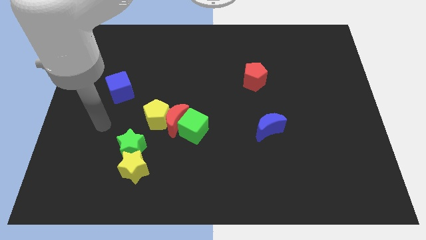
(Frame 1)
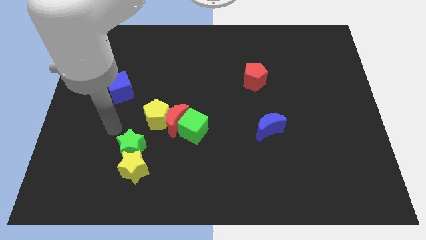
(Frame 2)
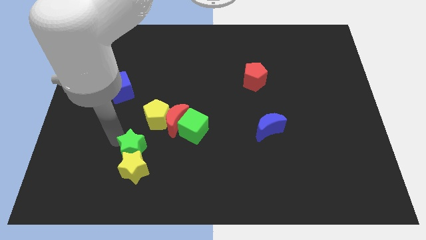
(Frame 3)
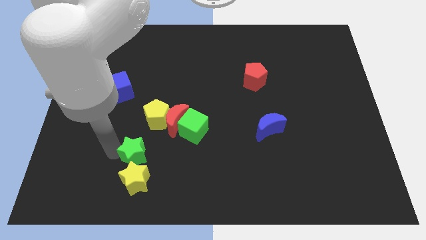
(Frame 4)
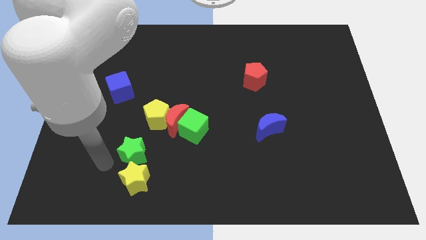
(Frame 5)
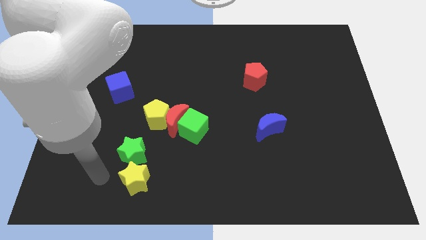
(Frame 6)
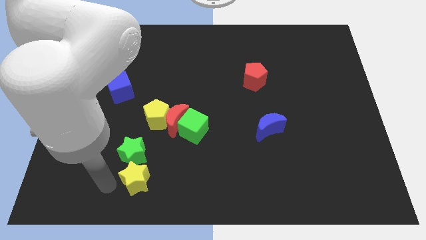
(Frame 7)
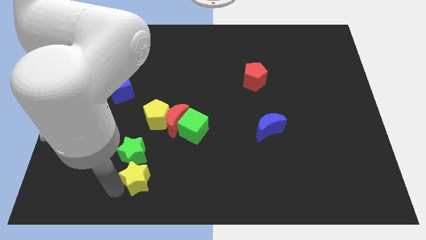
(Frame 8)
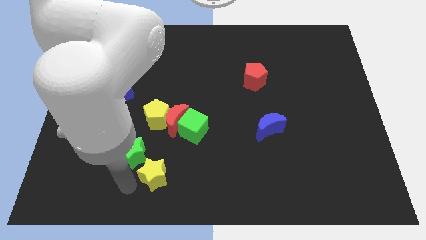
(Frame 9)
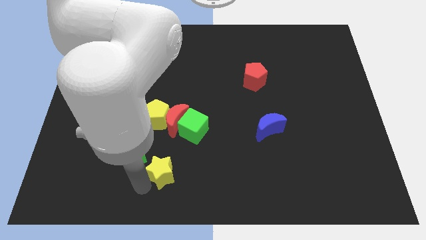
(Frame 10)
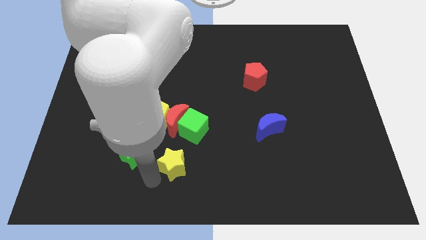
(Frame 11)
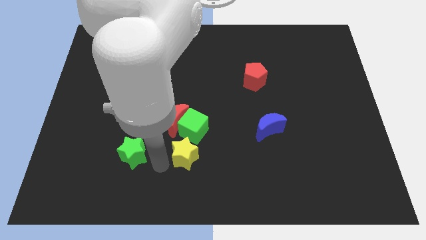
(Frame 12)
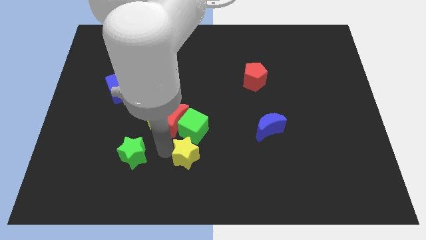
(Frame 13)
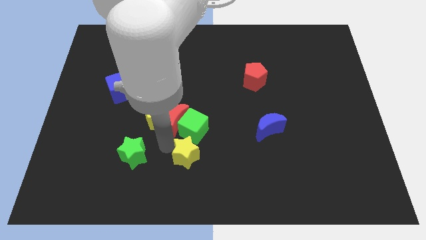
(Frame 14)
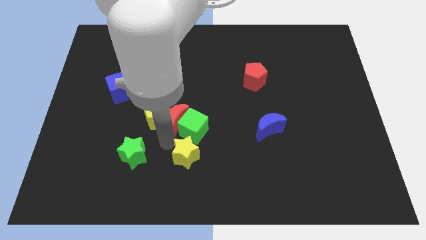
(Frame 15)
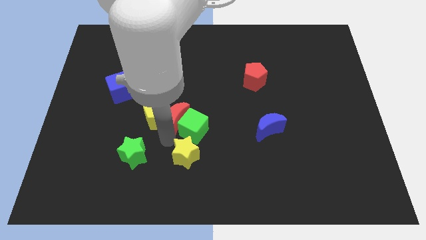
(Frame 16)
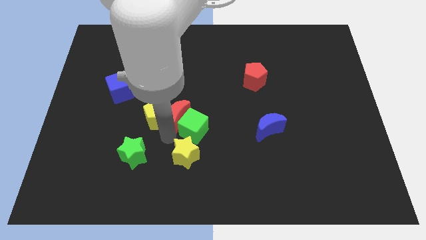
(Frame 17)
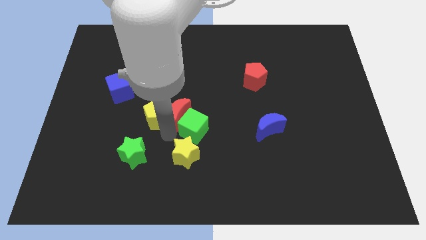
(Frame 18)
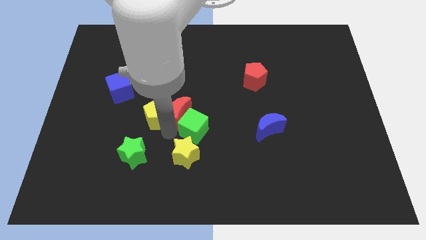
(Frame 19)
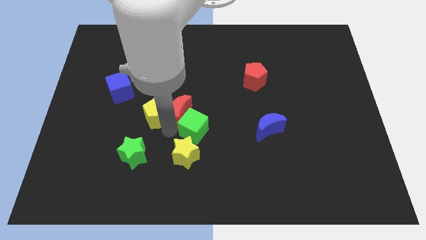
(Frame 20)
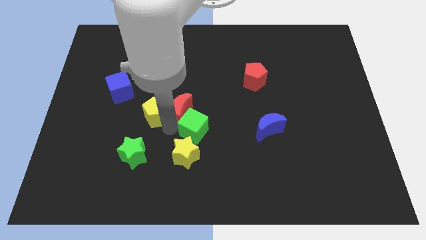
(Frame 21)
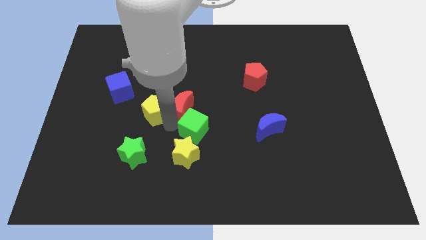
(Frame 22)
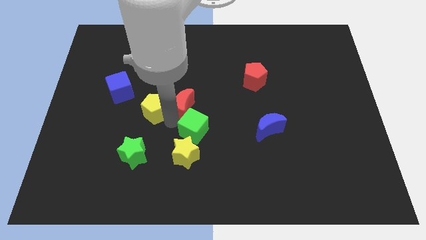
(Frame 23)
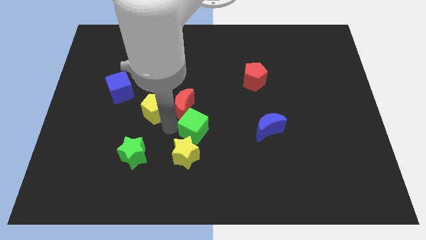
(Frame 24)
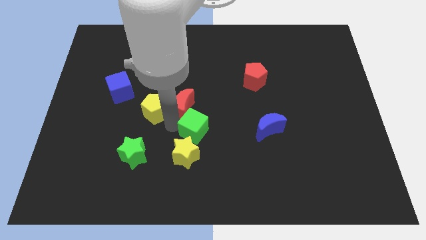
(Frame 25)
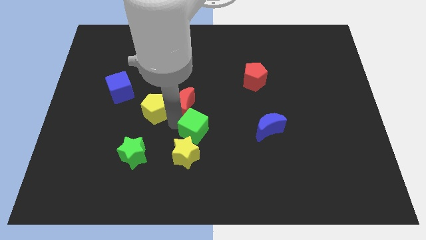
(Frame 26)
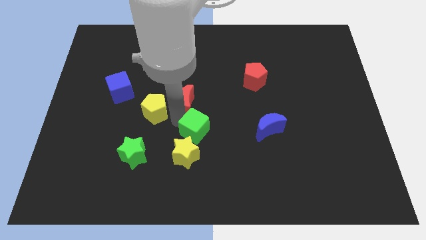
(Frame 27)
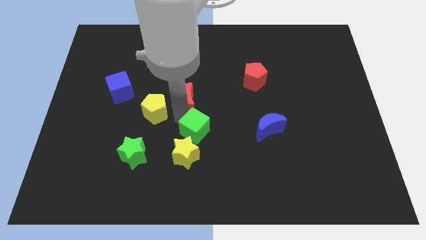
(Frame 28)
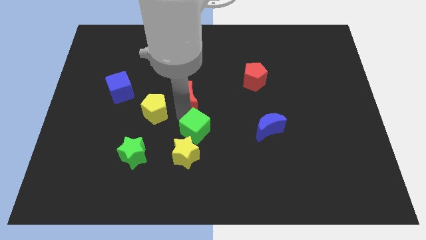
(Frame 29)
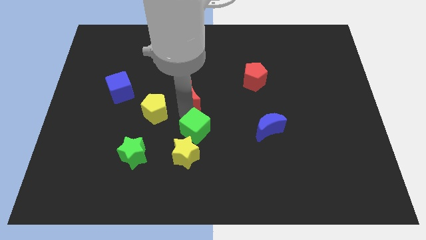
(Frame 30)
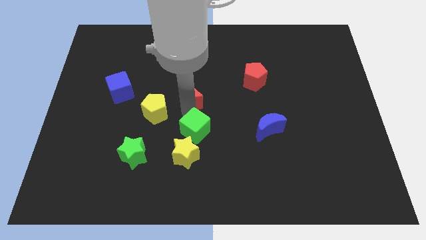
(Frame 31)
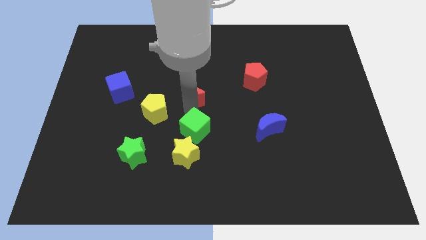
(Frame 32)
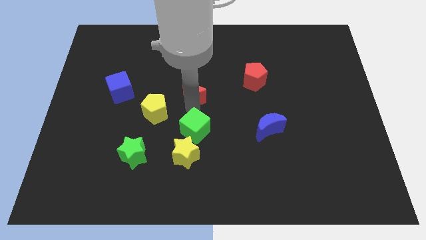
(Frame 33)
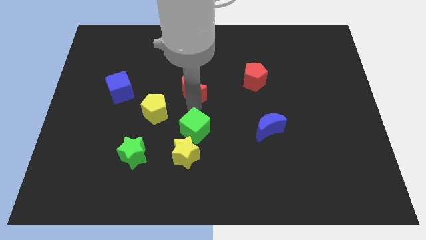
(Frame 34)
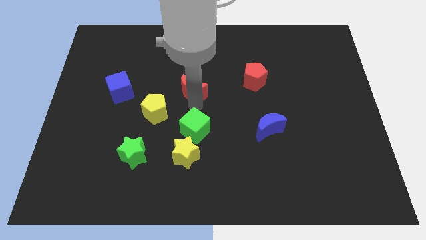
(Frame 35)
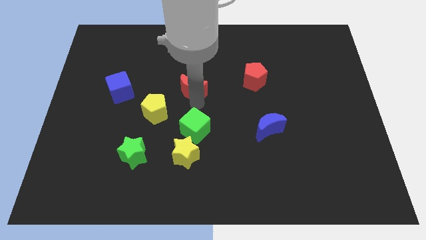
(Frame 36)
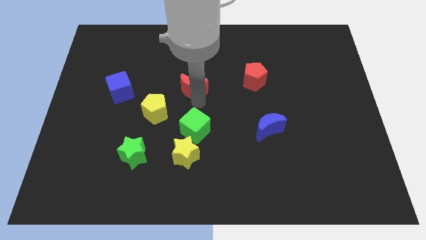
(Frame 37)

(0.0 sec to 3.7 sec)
move the red moon away from the yellow pentagon and green cube

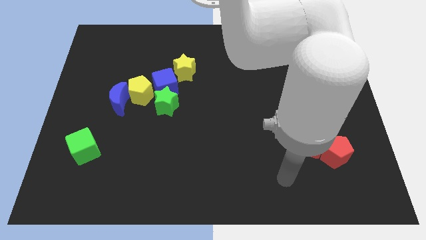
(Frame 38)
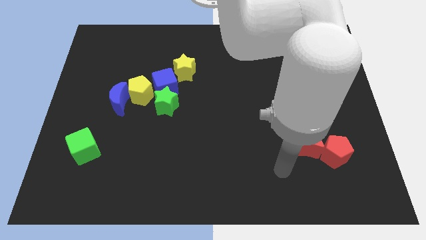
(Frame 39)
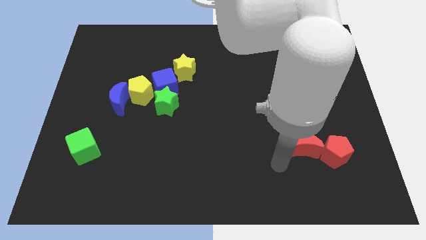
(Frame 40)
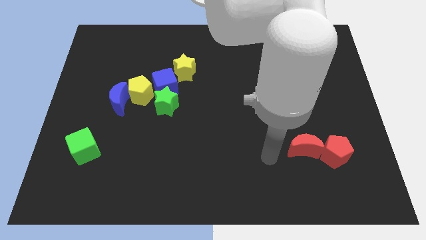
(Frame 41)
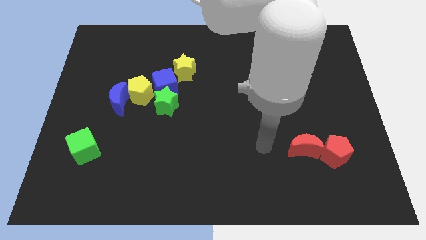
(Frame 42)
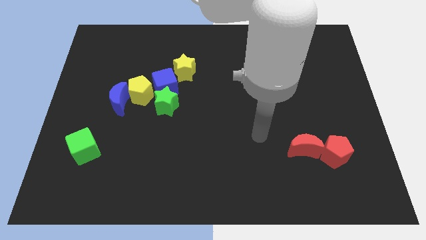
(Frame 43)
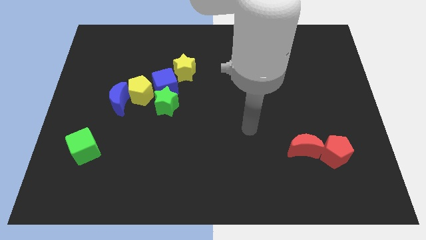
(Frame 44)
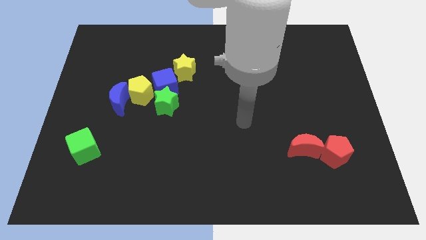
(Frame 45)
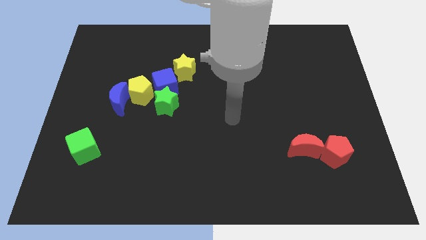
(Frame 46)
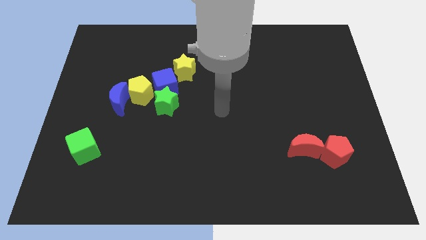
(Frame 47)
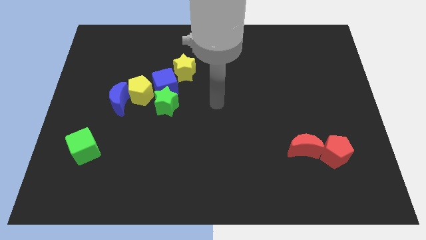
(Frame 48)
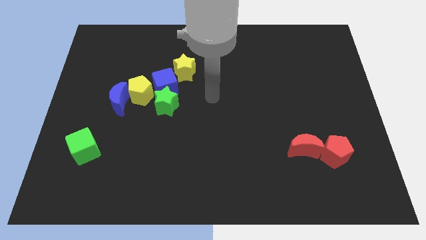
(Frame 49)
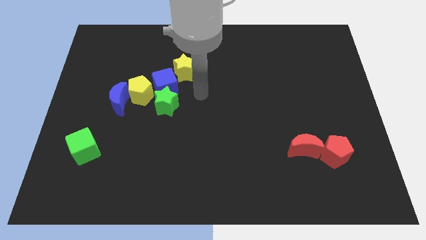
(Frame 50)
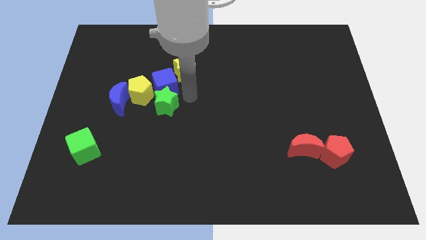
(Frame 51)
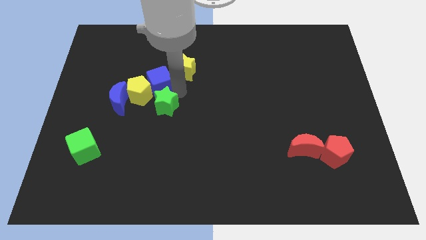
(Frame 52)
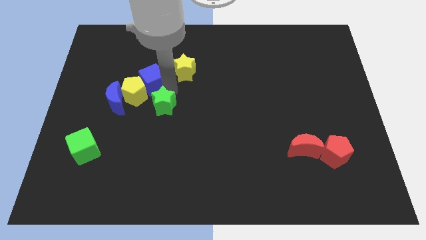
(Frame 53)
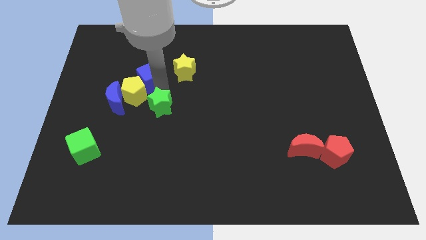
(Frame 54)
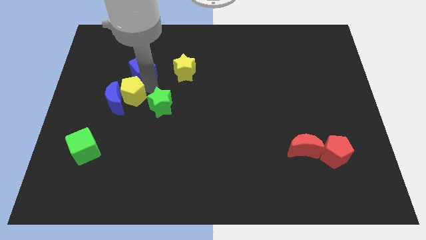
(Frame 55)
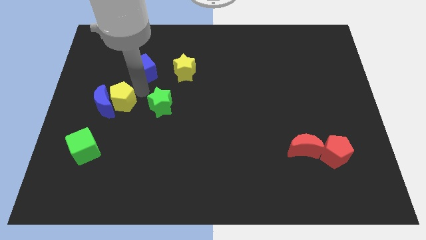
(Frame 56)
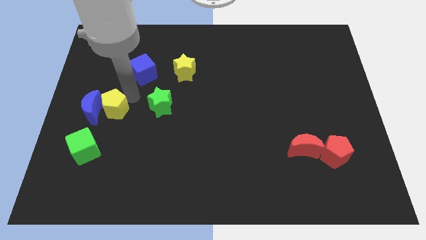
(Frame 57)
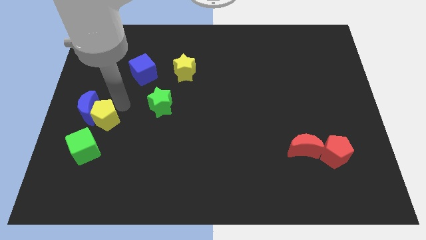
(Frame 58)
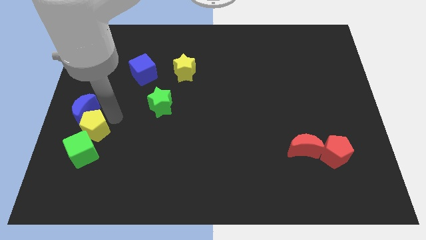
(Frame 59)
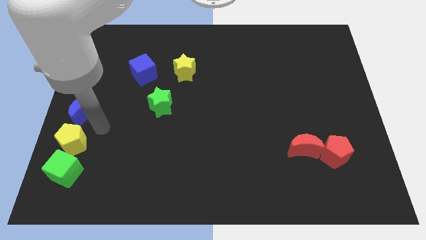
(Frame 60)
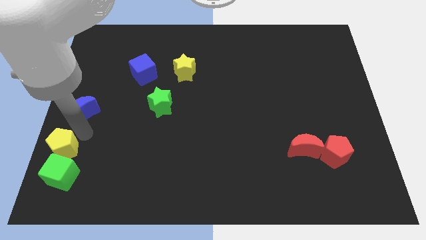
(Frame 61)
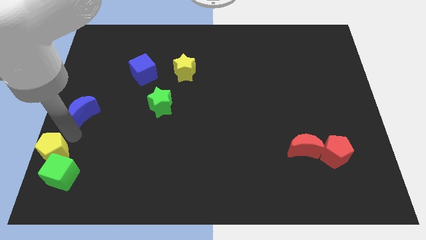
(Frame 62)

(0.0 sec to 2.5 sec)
pull the blue moon apart from the yellow pentagon

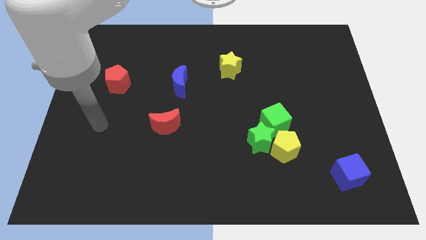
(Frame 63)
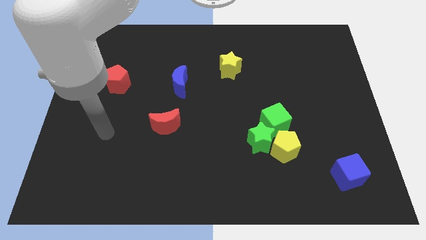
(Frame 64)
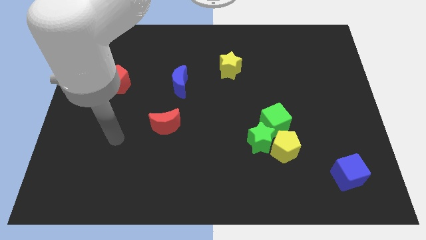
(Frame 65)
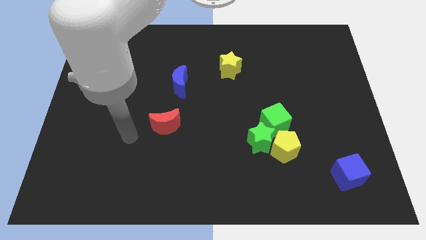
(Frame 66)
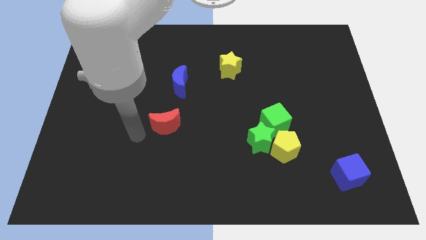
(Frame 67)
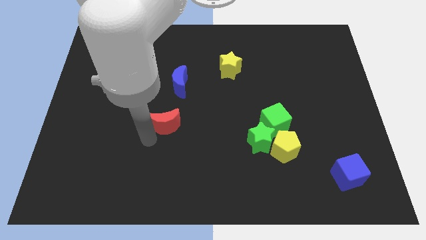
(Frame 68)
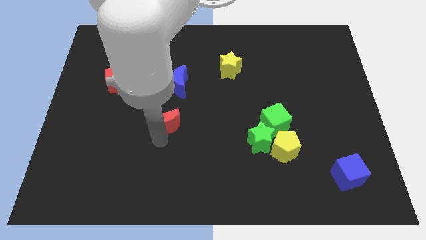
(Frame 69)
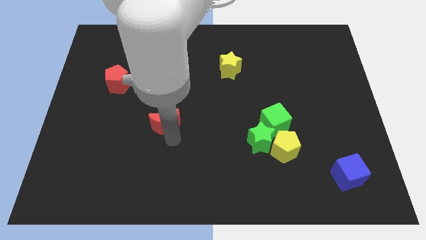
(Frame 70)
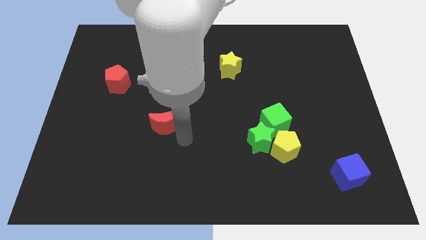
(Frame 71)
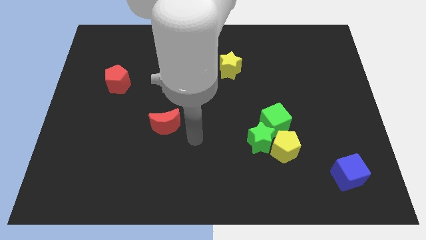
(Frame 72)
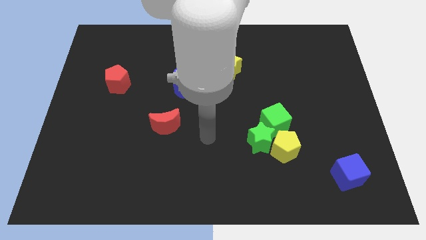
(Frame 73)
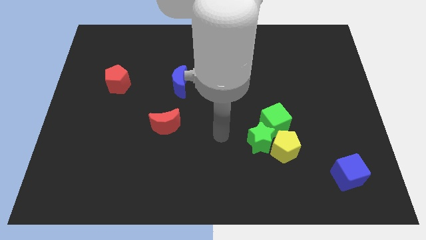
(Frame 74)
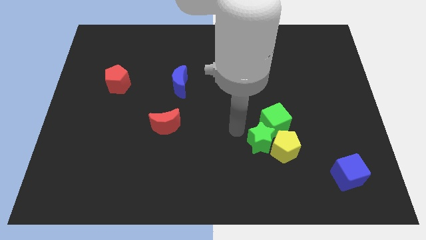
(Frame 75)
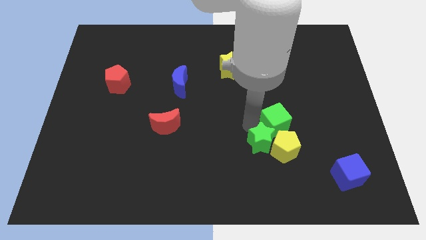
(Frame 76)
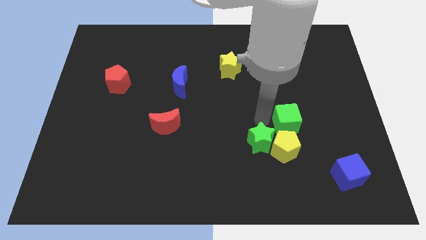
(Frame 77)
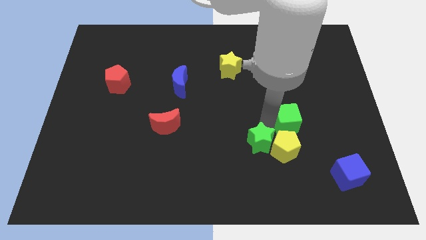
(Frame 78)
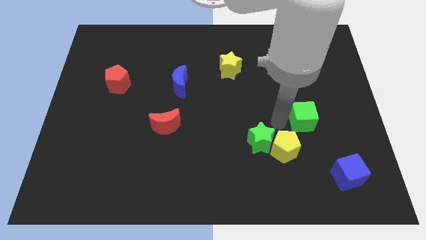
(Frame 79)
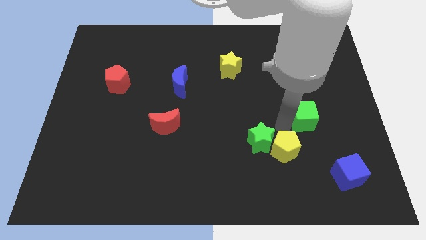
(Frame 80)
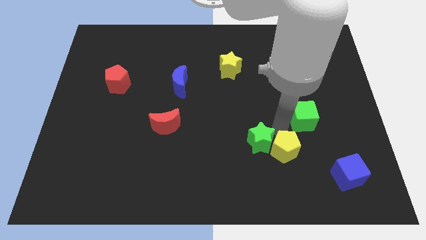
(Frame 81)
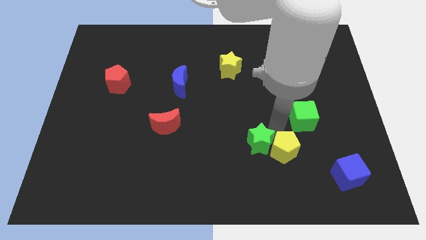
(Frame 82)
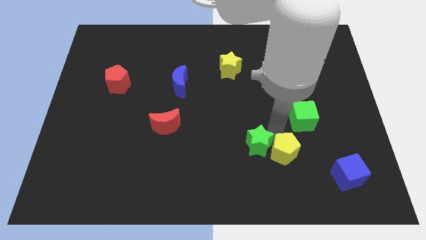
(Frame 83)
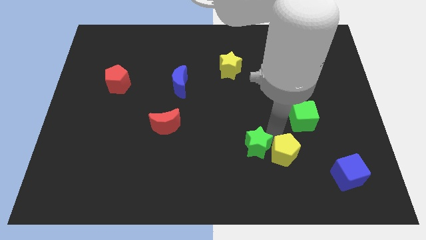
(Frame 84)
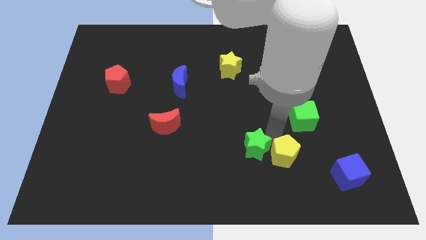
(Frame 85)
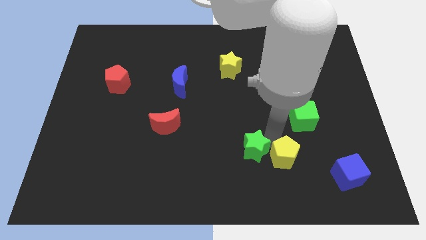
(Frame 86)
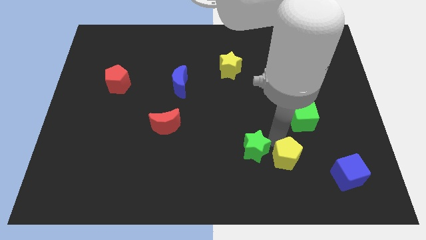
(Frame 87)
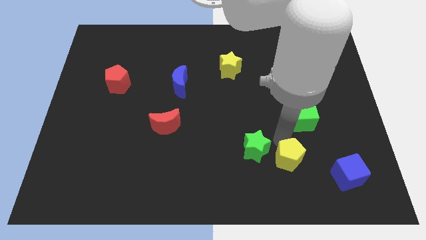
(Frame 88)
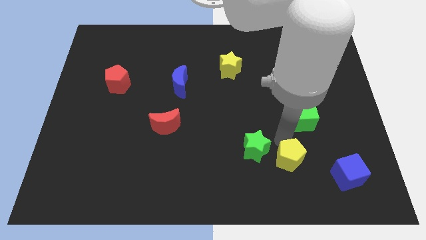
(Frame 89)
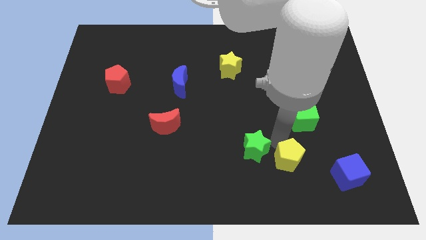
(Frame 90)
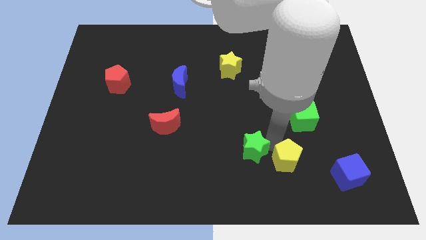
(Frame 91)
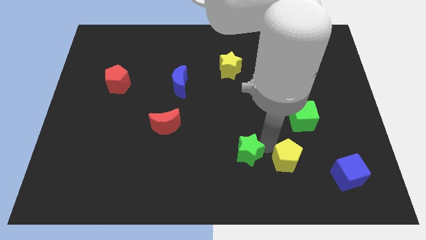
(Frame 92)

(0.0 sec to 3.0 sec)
separate the green star from the yellow pentagon and green cube
